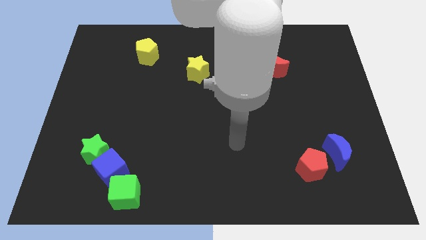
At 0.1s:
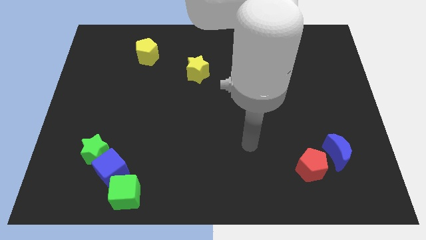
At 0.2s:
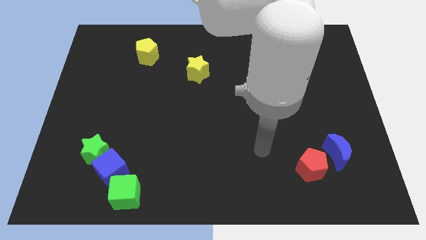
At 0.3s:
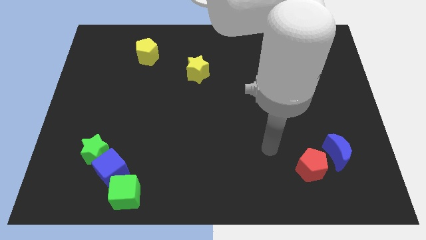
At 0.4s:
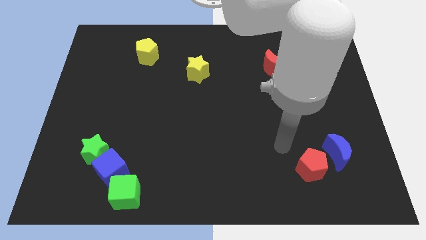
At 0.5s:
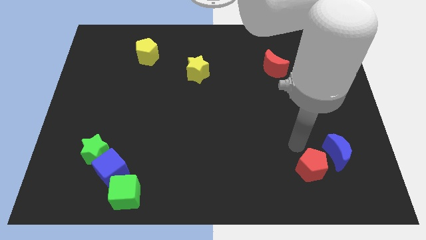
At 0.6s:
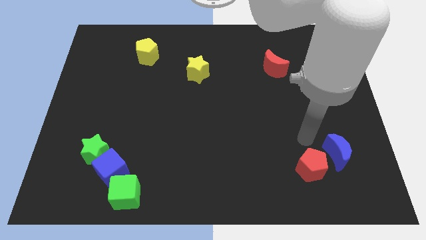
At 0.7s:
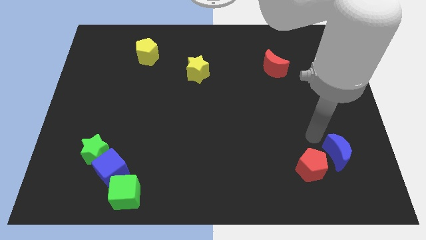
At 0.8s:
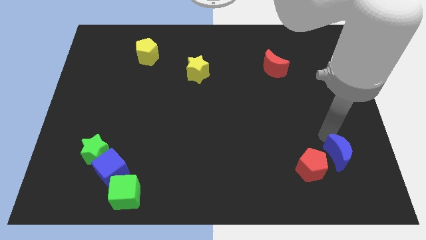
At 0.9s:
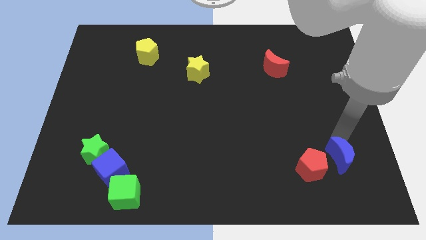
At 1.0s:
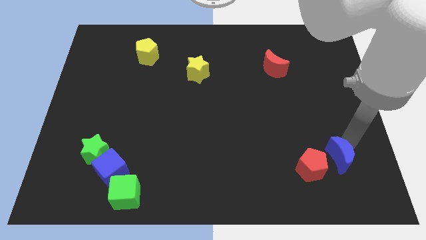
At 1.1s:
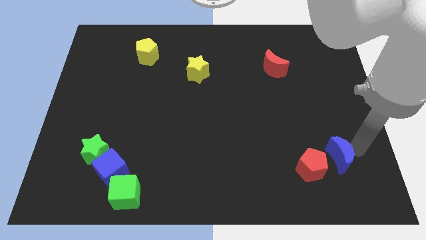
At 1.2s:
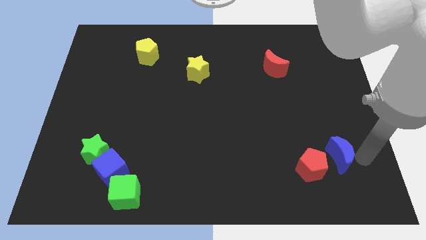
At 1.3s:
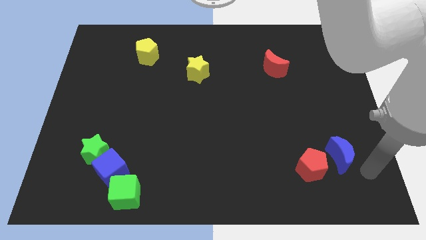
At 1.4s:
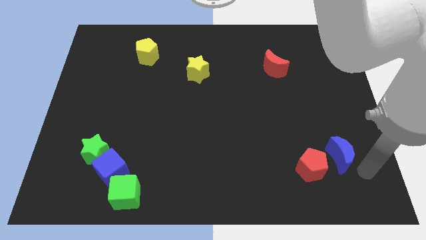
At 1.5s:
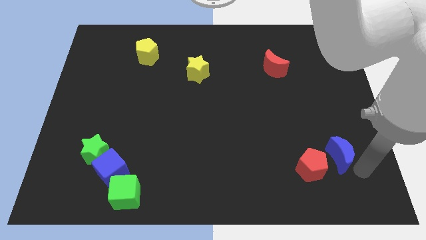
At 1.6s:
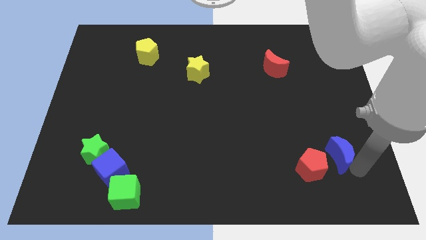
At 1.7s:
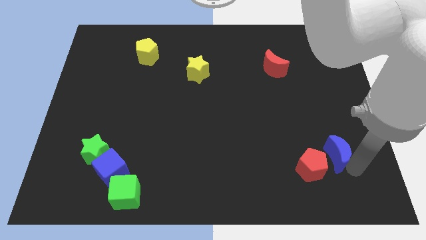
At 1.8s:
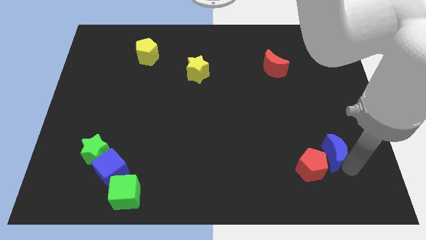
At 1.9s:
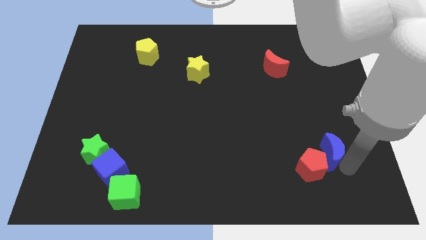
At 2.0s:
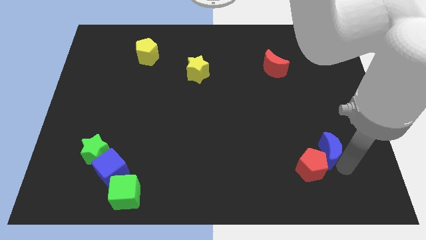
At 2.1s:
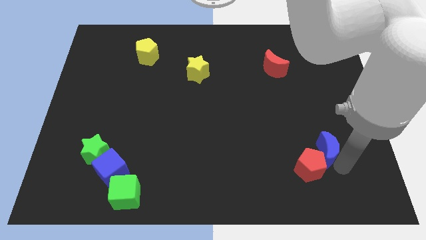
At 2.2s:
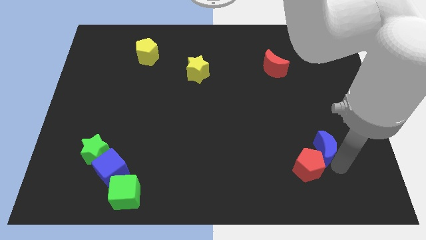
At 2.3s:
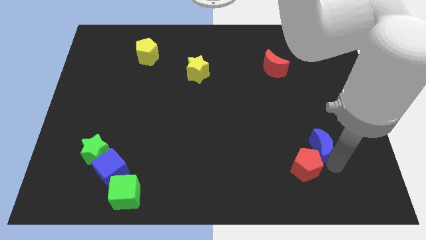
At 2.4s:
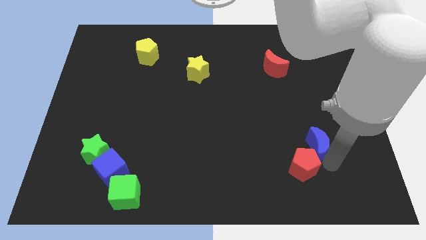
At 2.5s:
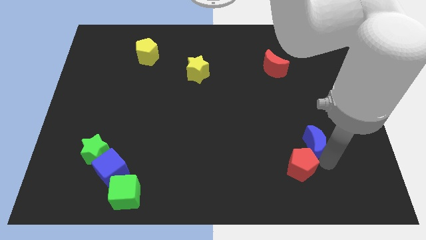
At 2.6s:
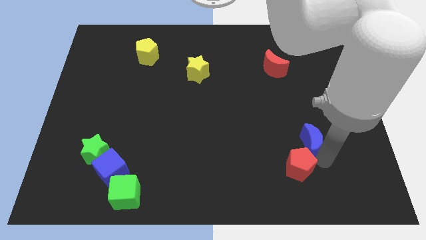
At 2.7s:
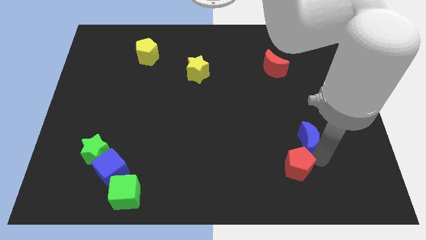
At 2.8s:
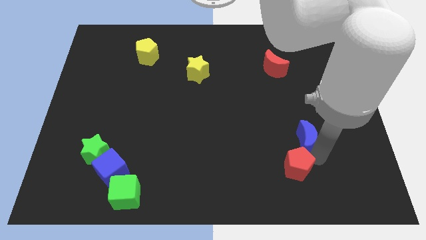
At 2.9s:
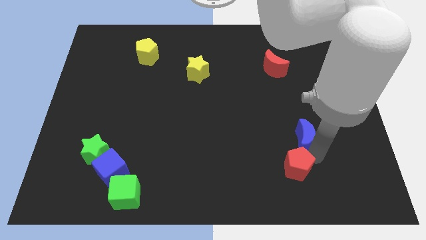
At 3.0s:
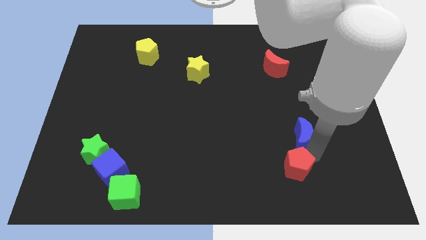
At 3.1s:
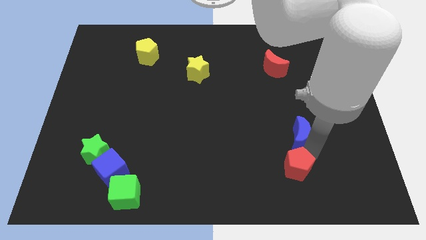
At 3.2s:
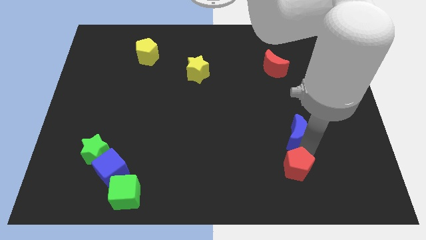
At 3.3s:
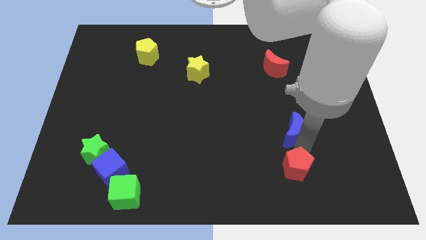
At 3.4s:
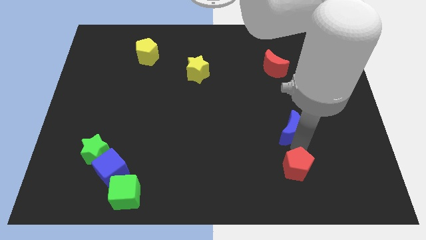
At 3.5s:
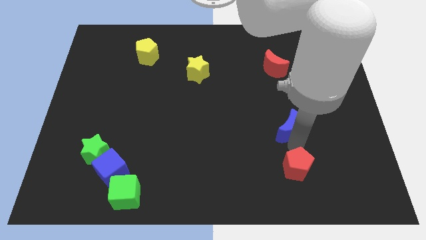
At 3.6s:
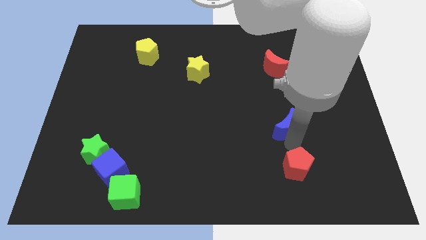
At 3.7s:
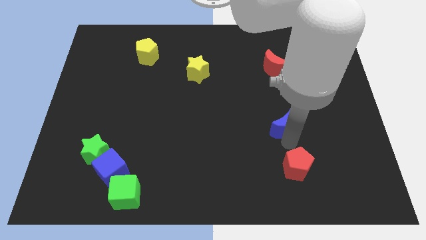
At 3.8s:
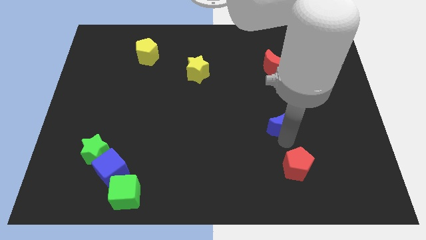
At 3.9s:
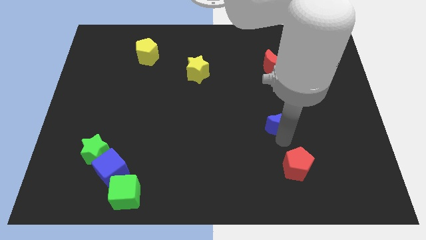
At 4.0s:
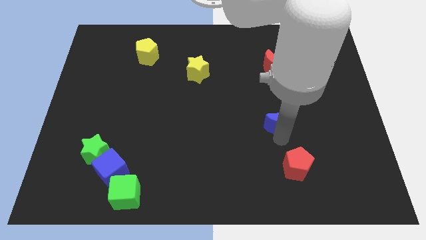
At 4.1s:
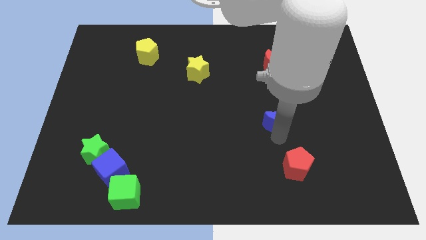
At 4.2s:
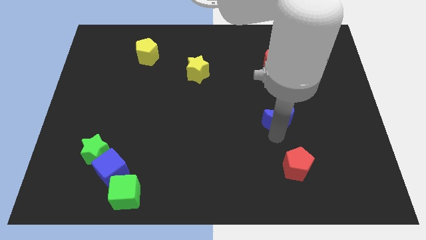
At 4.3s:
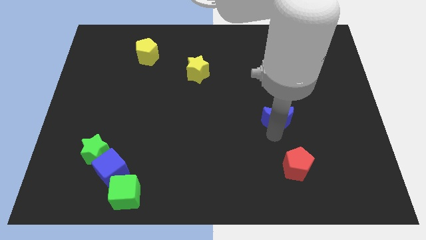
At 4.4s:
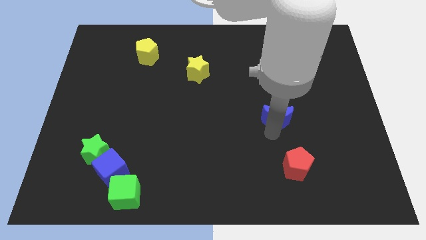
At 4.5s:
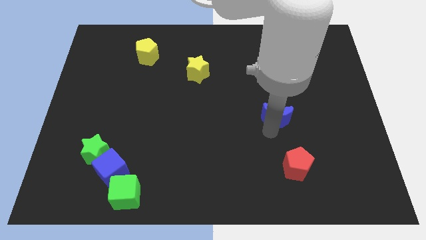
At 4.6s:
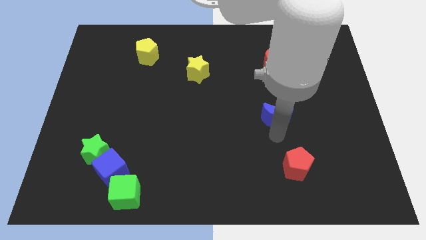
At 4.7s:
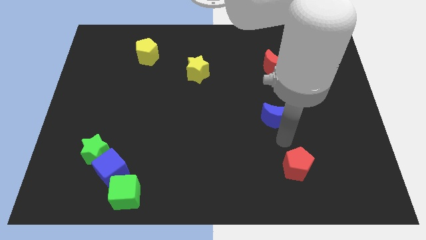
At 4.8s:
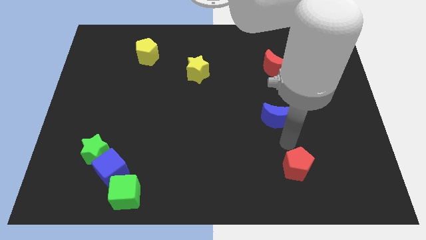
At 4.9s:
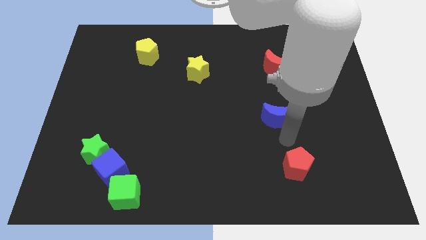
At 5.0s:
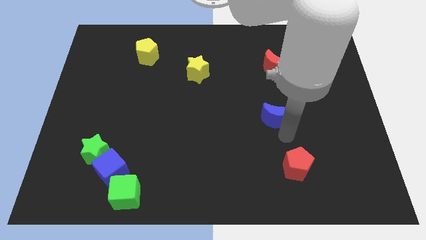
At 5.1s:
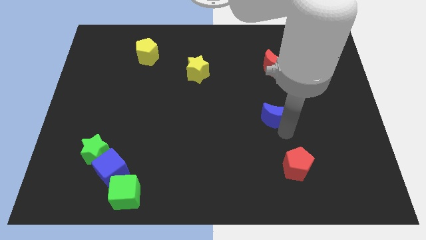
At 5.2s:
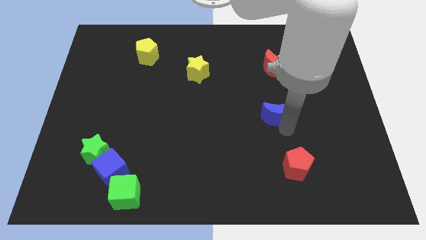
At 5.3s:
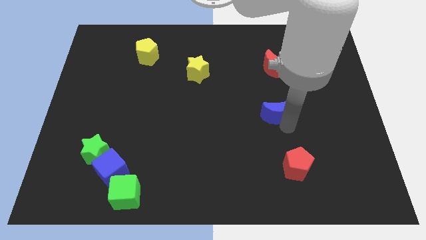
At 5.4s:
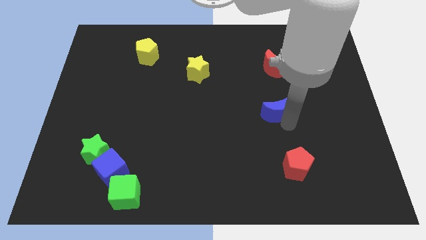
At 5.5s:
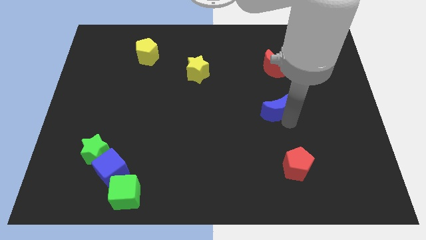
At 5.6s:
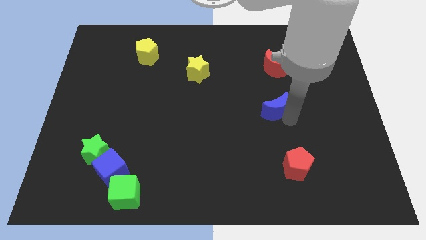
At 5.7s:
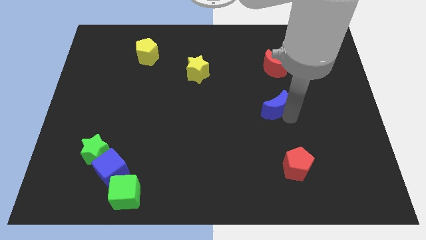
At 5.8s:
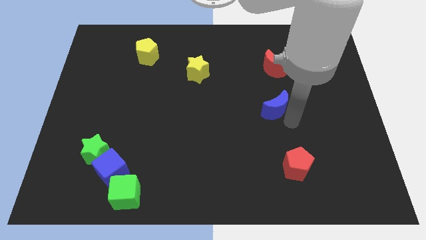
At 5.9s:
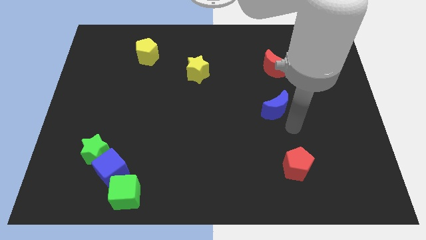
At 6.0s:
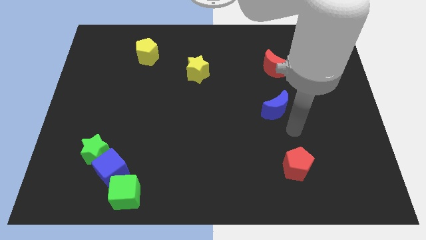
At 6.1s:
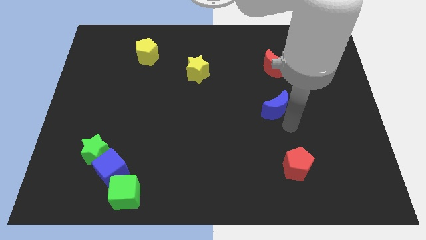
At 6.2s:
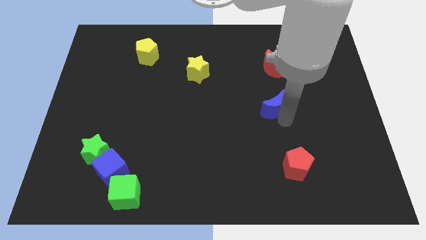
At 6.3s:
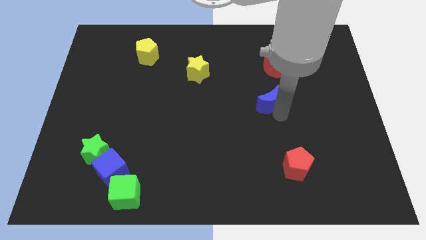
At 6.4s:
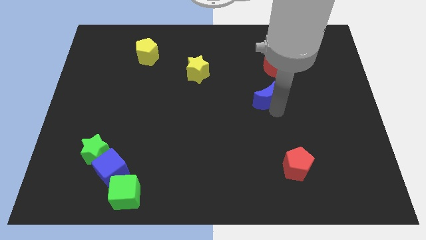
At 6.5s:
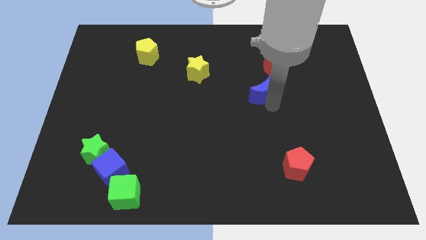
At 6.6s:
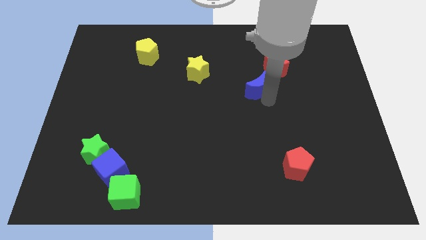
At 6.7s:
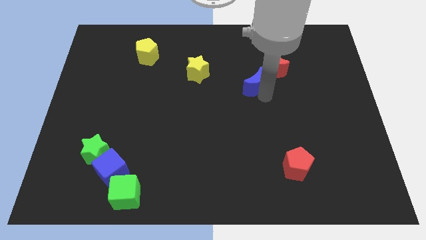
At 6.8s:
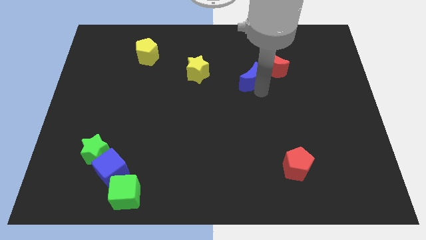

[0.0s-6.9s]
move the blue moon to the right side of the yellow star
